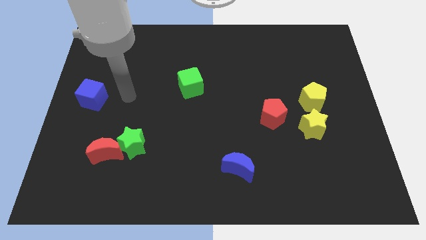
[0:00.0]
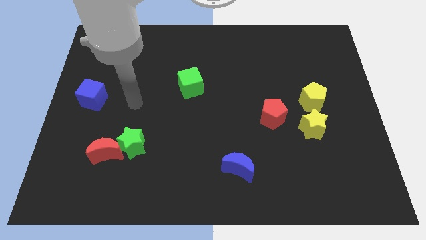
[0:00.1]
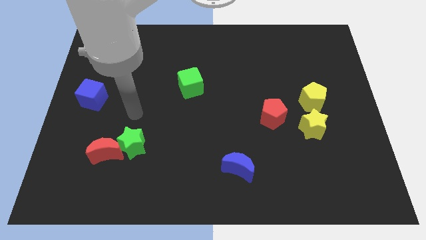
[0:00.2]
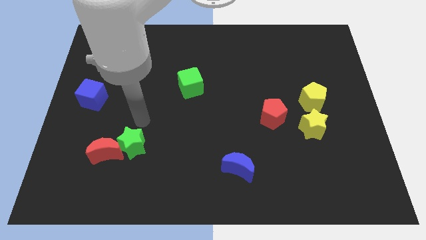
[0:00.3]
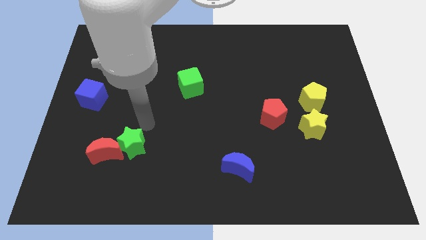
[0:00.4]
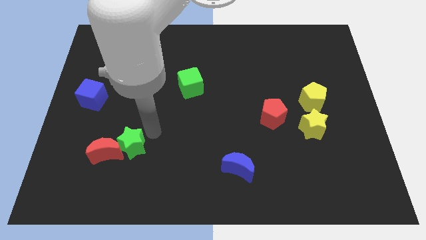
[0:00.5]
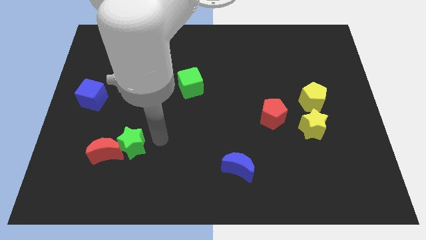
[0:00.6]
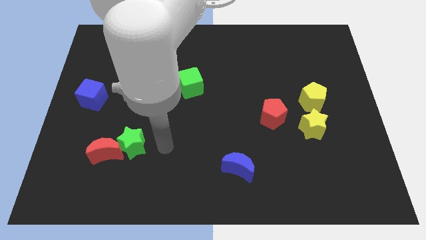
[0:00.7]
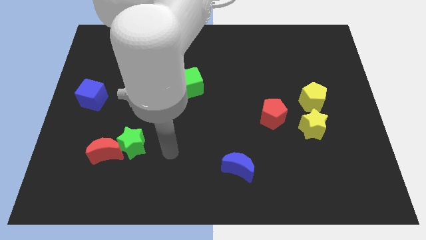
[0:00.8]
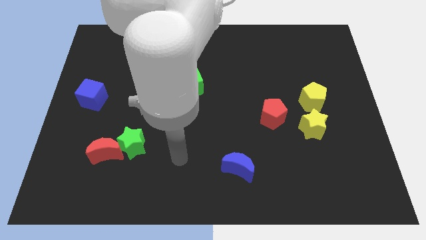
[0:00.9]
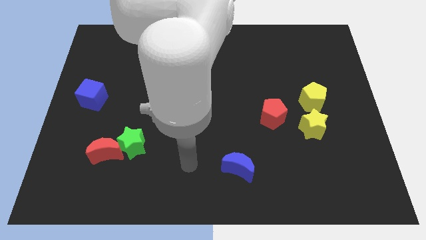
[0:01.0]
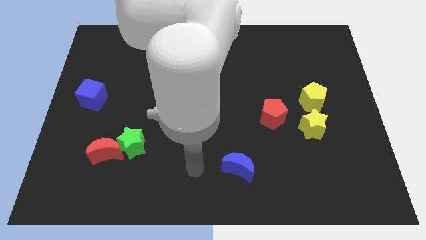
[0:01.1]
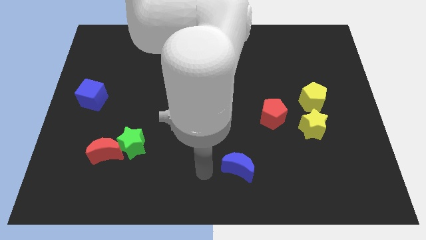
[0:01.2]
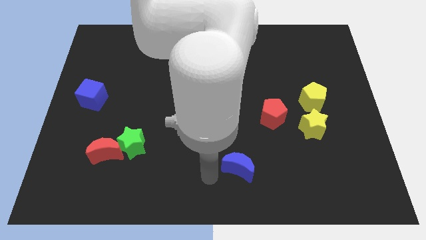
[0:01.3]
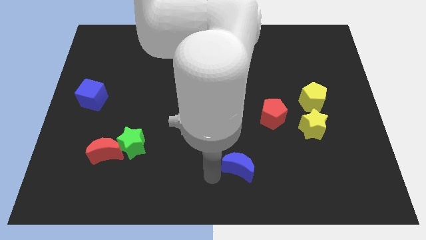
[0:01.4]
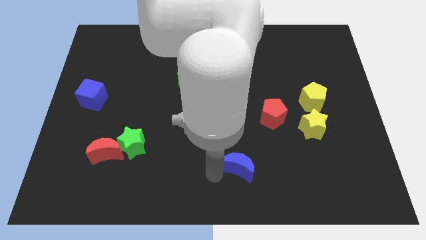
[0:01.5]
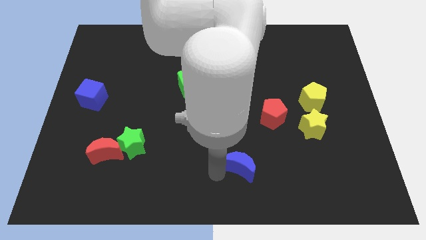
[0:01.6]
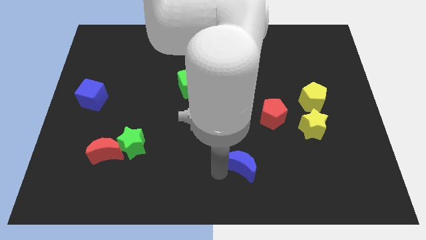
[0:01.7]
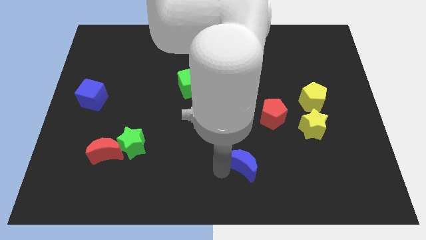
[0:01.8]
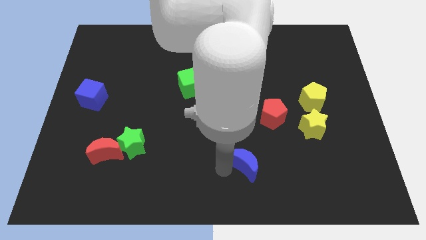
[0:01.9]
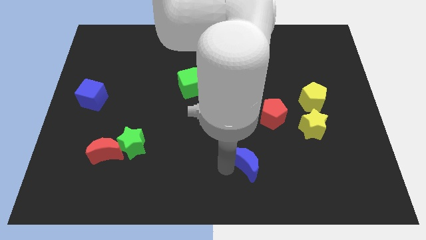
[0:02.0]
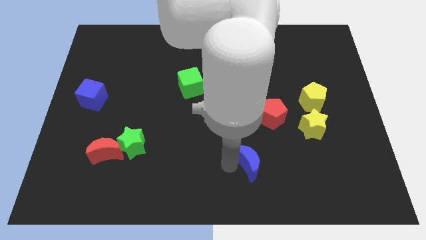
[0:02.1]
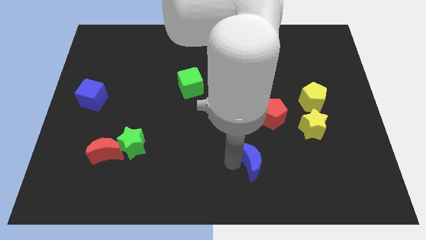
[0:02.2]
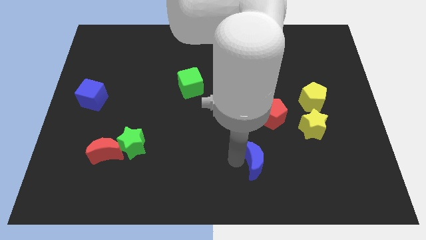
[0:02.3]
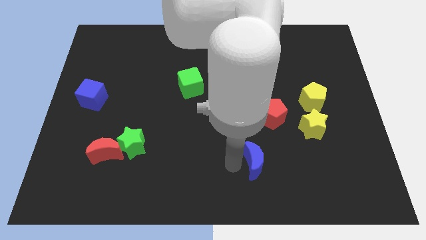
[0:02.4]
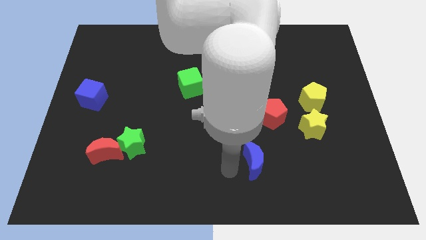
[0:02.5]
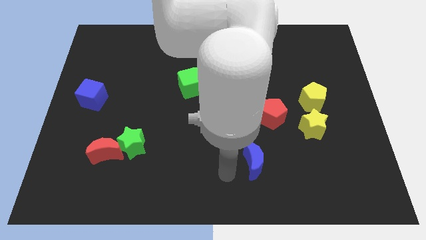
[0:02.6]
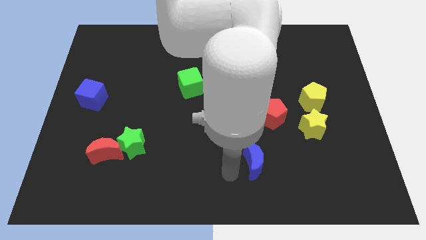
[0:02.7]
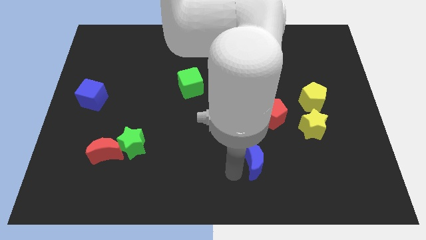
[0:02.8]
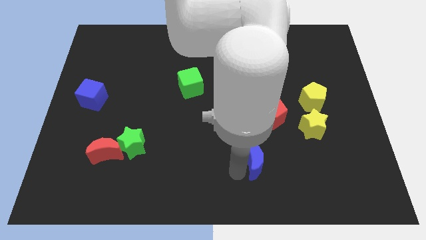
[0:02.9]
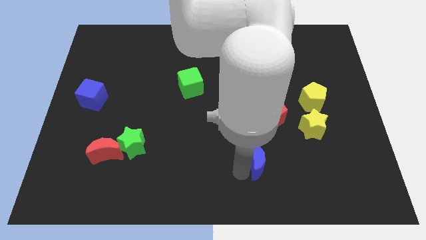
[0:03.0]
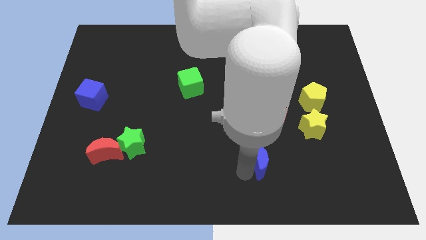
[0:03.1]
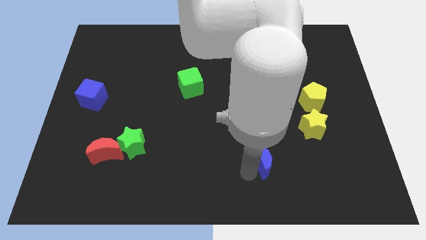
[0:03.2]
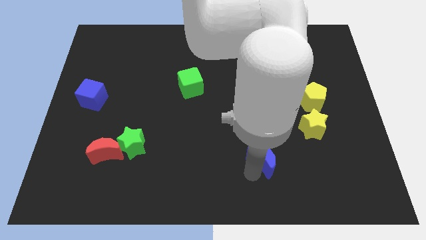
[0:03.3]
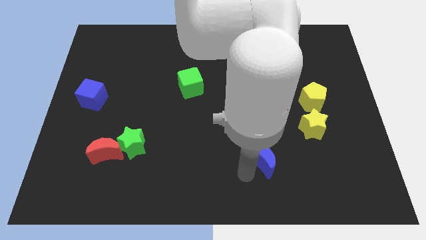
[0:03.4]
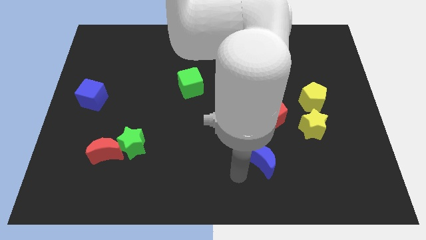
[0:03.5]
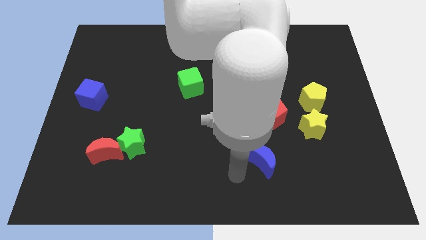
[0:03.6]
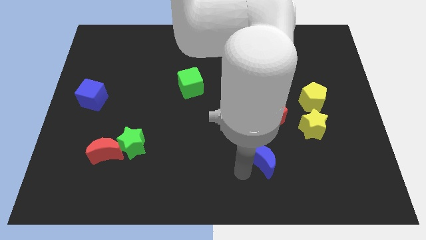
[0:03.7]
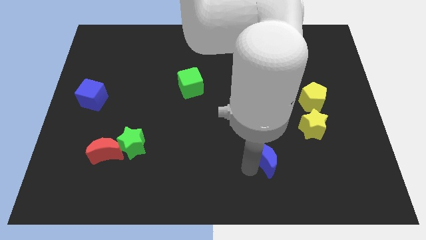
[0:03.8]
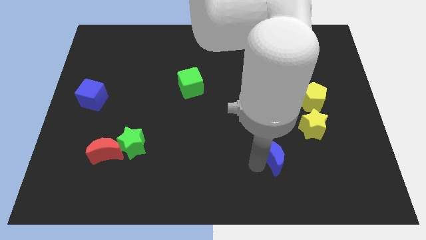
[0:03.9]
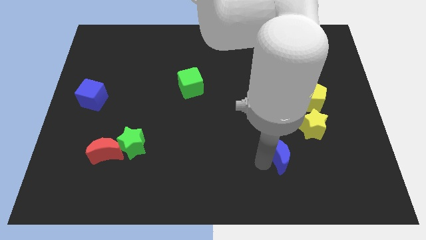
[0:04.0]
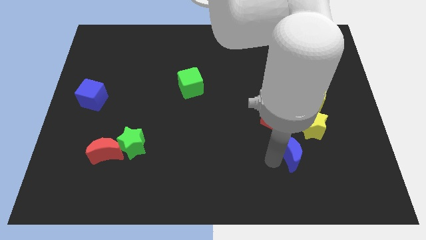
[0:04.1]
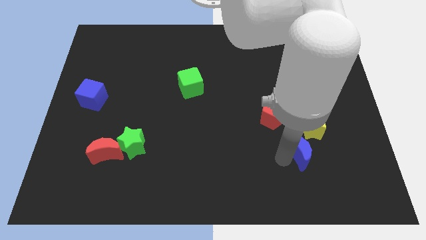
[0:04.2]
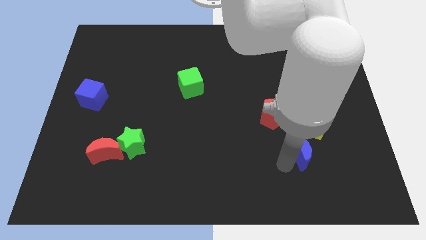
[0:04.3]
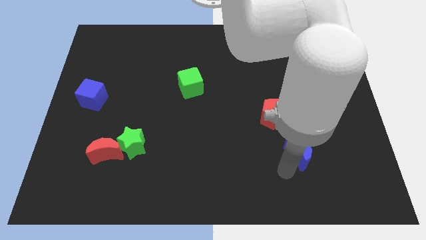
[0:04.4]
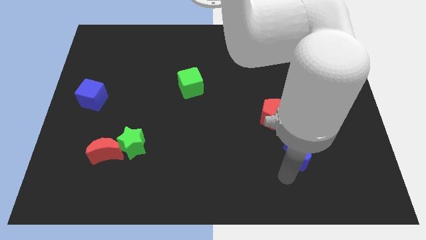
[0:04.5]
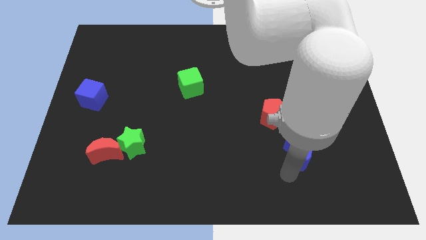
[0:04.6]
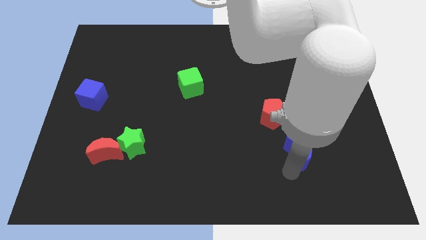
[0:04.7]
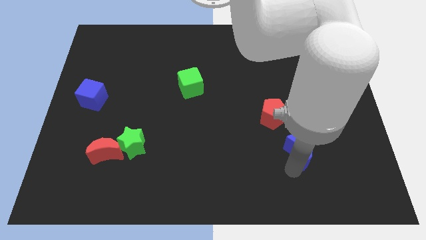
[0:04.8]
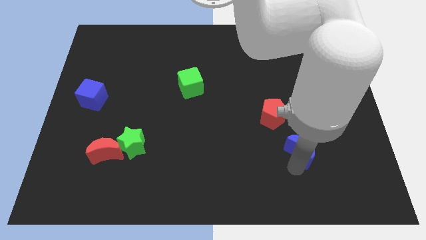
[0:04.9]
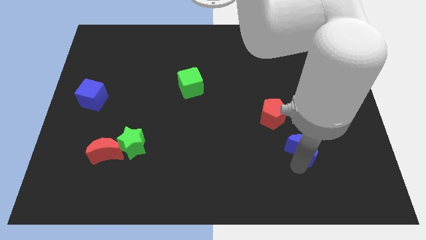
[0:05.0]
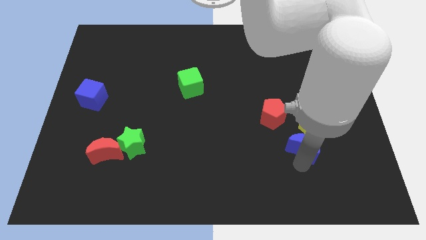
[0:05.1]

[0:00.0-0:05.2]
move the blue moon towards the yellow star

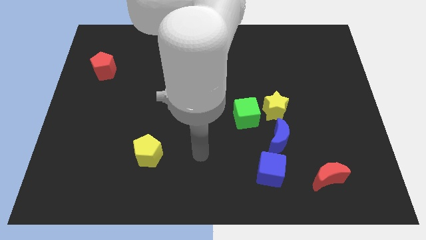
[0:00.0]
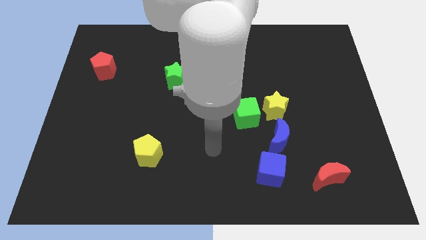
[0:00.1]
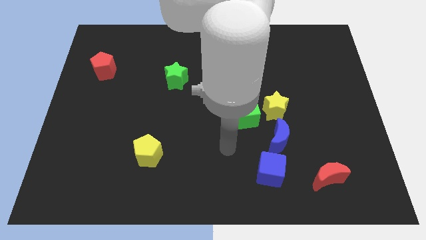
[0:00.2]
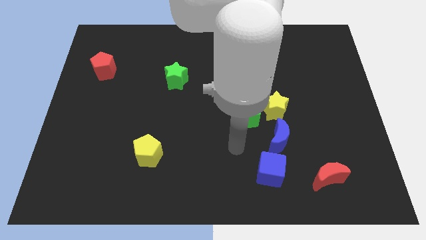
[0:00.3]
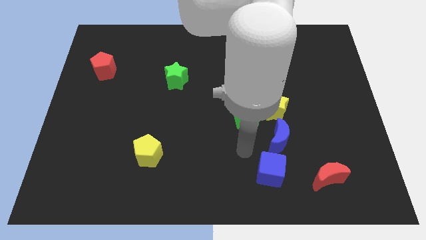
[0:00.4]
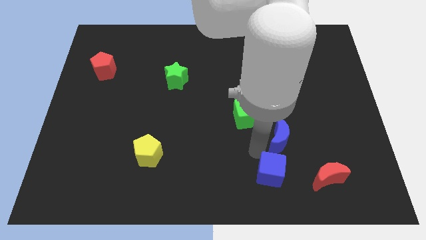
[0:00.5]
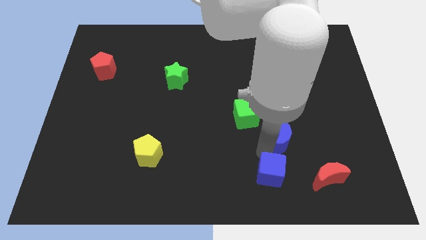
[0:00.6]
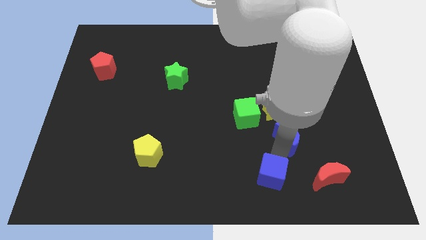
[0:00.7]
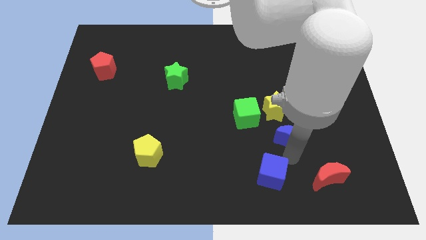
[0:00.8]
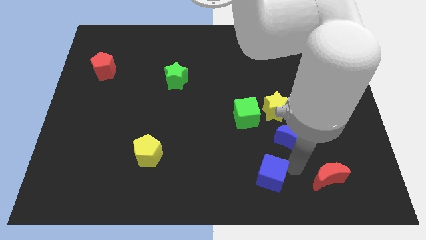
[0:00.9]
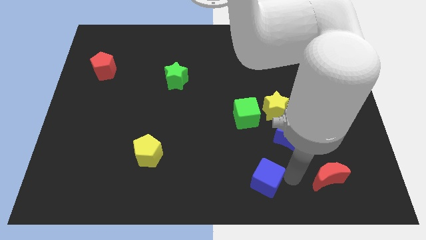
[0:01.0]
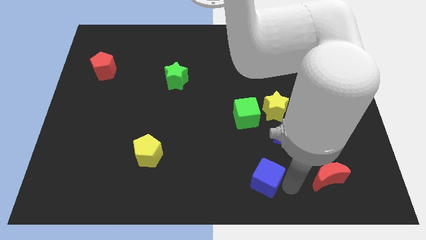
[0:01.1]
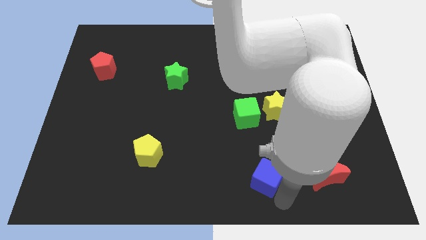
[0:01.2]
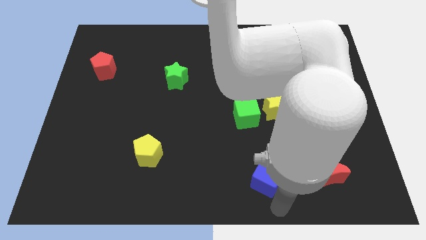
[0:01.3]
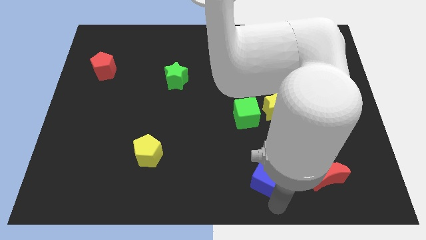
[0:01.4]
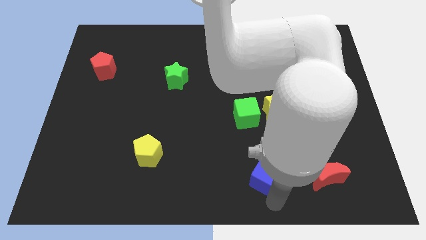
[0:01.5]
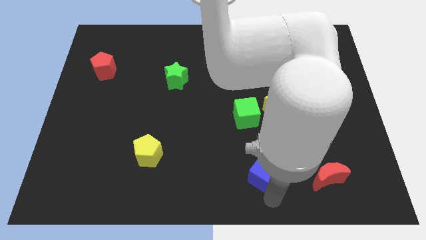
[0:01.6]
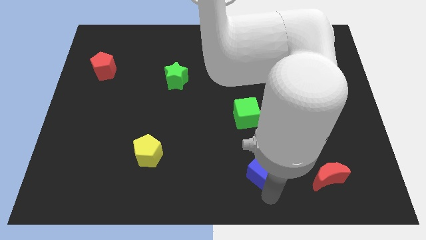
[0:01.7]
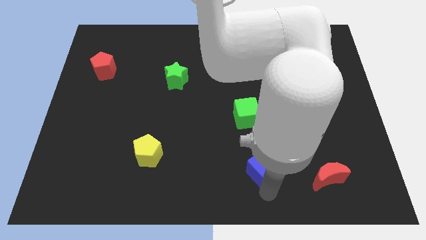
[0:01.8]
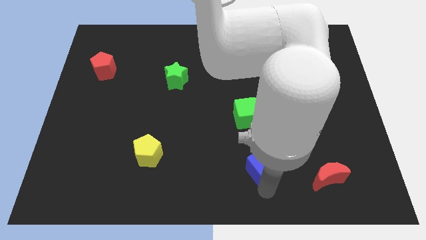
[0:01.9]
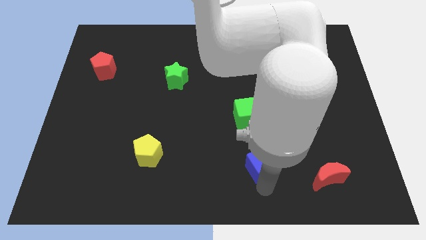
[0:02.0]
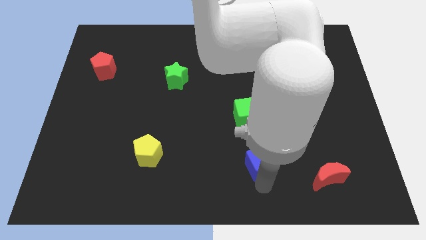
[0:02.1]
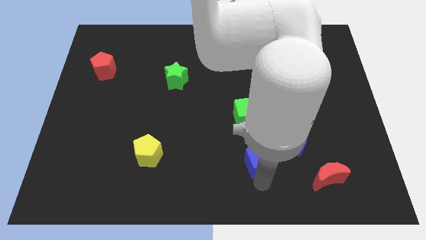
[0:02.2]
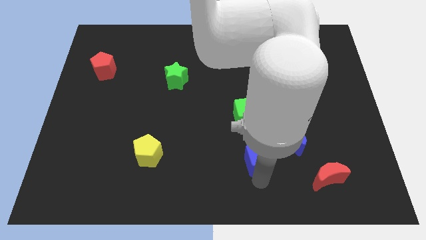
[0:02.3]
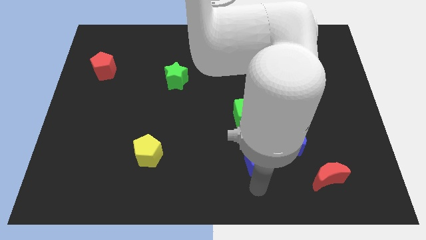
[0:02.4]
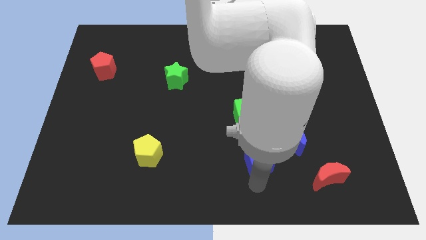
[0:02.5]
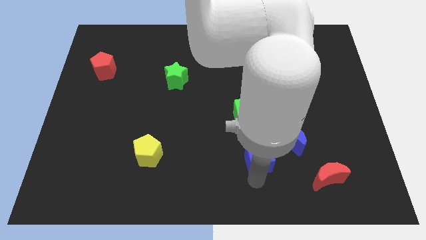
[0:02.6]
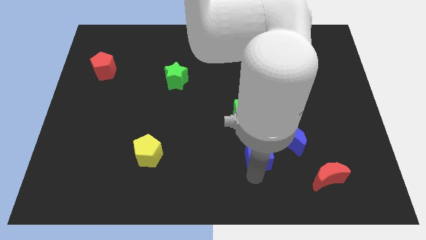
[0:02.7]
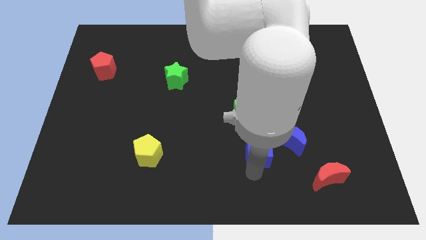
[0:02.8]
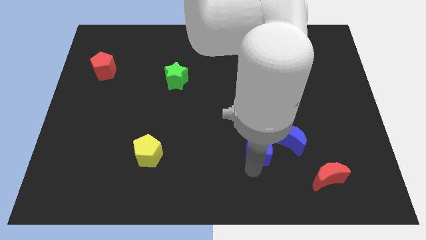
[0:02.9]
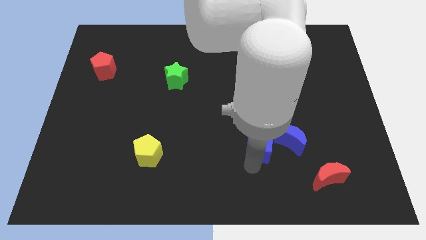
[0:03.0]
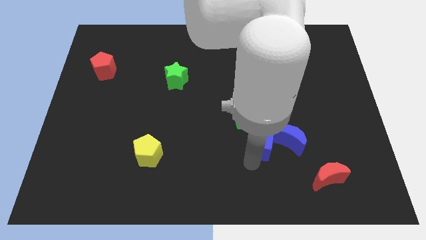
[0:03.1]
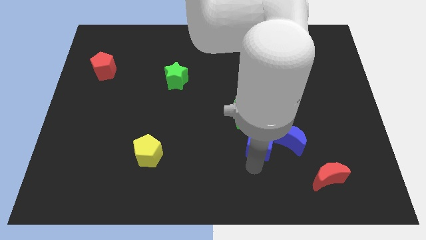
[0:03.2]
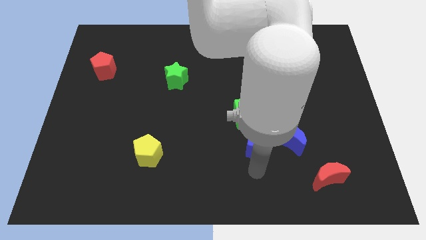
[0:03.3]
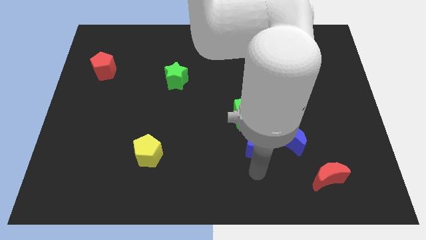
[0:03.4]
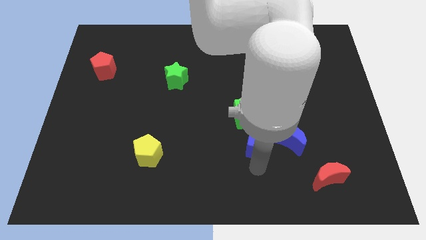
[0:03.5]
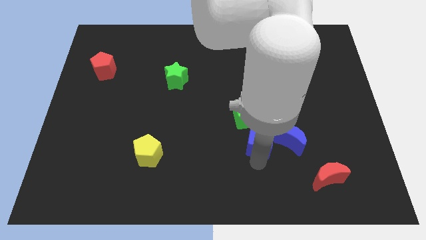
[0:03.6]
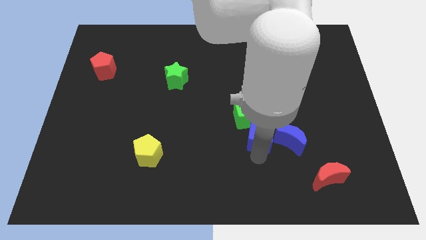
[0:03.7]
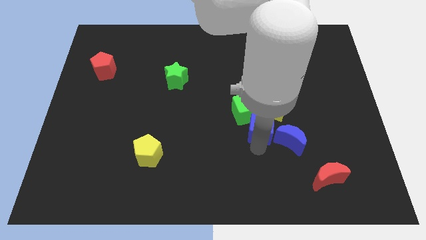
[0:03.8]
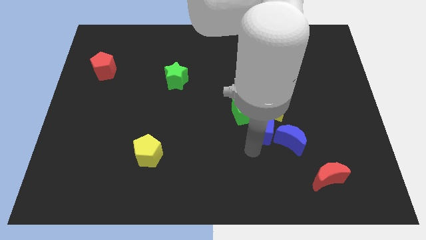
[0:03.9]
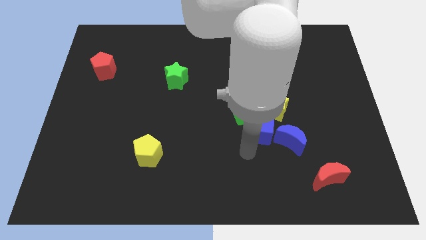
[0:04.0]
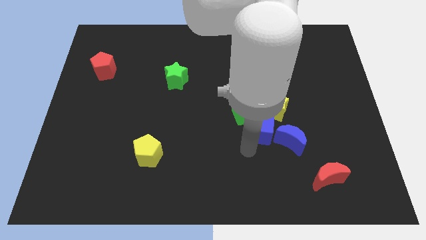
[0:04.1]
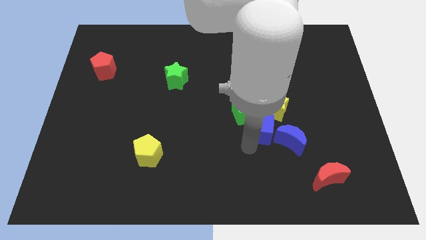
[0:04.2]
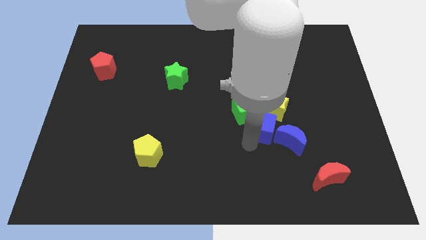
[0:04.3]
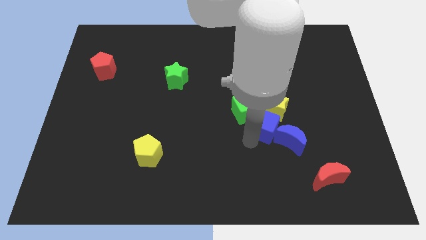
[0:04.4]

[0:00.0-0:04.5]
slide the blue cube towards the yellow star
